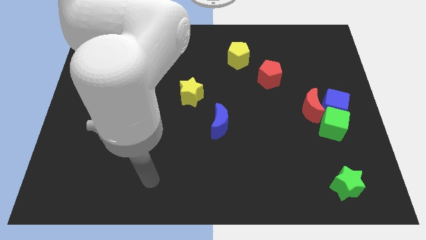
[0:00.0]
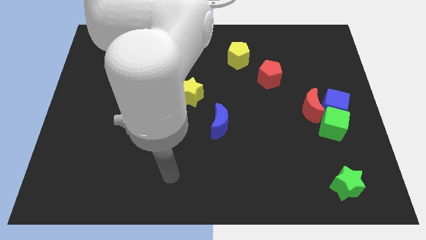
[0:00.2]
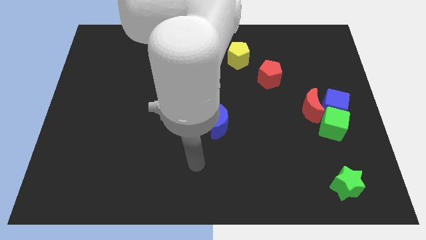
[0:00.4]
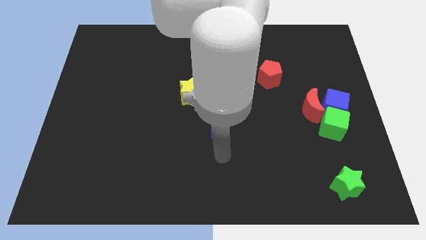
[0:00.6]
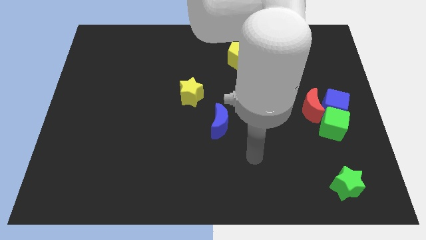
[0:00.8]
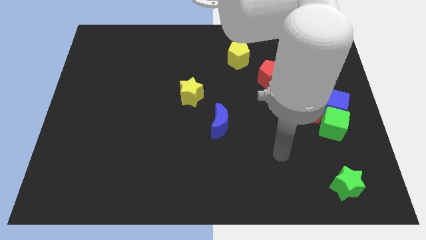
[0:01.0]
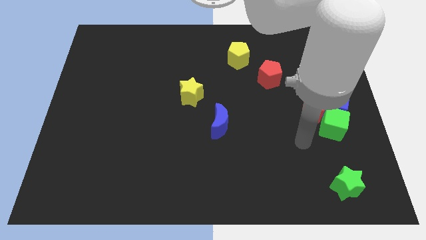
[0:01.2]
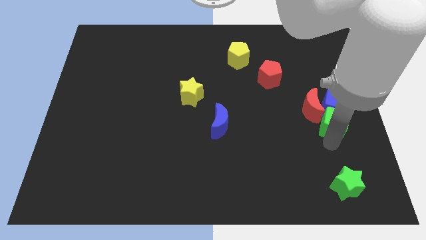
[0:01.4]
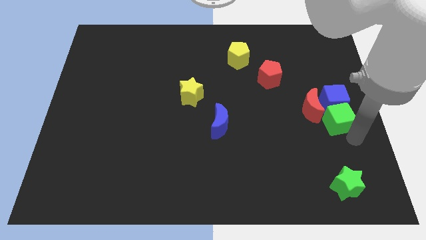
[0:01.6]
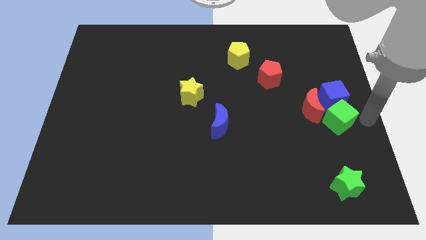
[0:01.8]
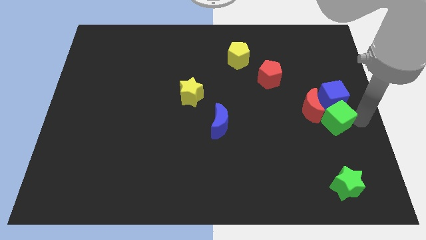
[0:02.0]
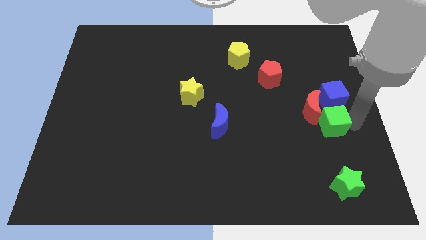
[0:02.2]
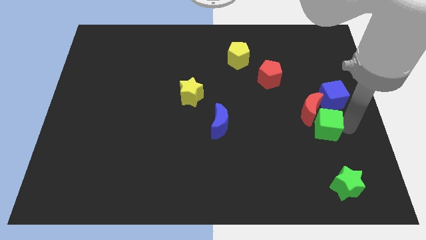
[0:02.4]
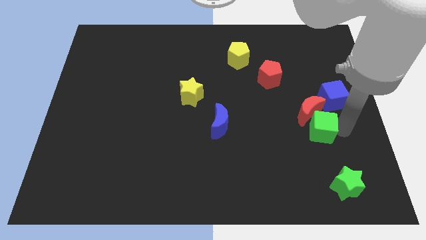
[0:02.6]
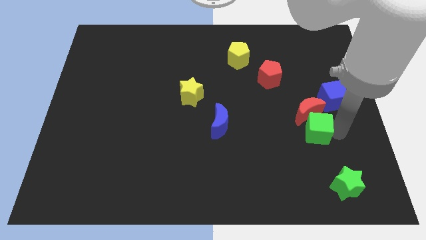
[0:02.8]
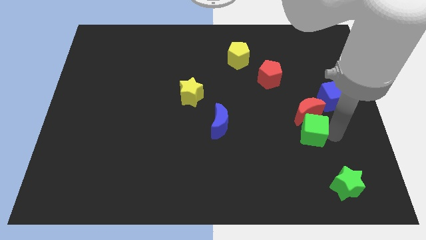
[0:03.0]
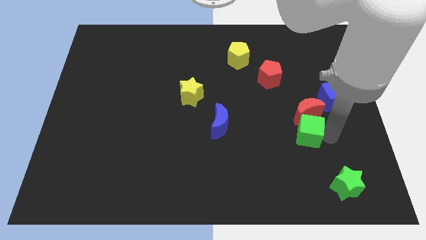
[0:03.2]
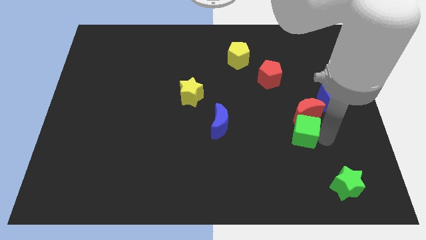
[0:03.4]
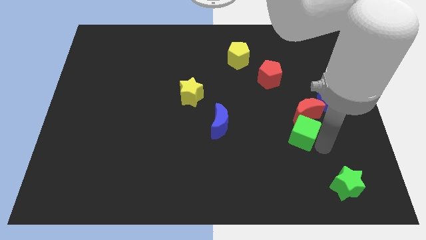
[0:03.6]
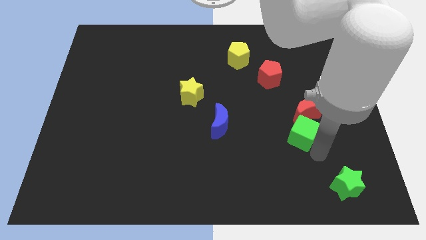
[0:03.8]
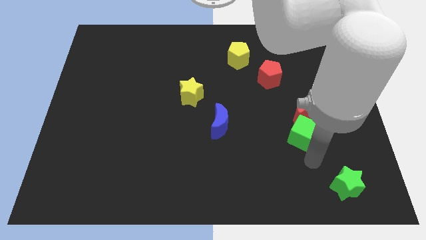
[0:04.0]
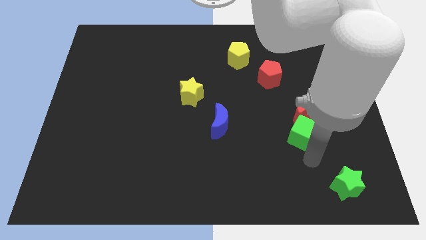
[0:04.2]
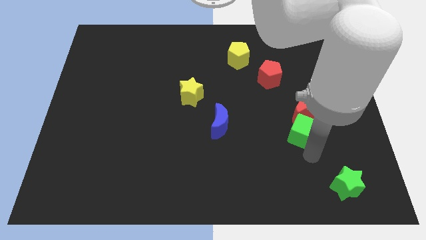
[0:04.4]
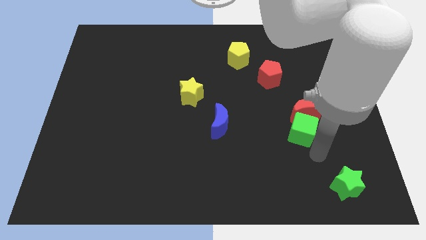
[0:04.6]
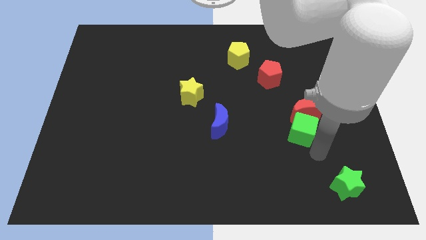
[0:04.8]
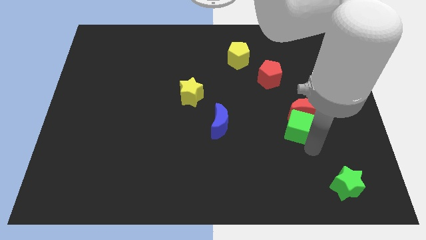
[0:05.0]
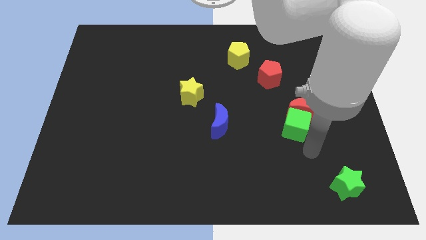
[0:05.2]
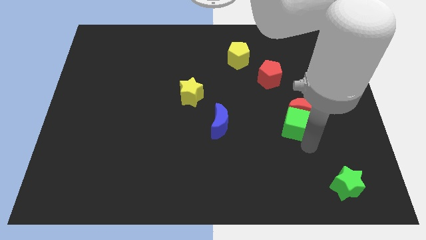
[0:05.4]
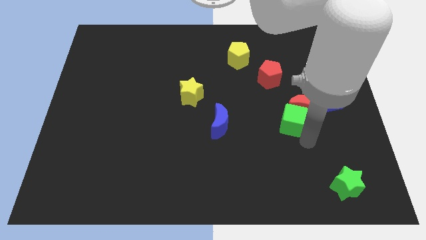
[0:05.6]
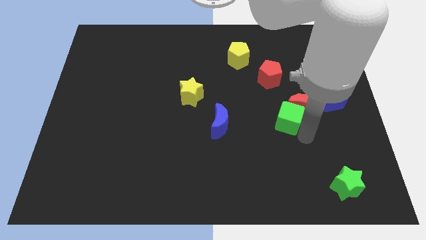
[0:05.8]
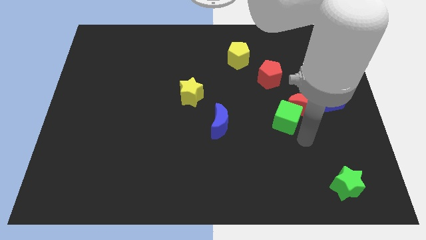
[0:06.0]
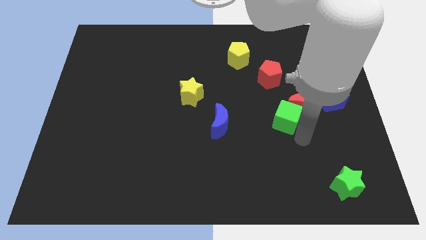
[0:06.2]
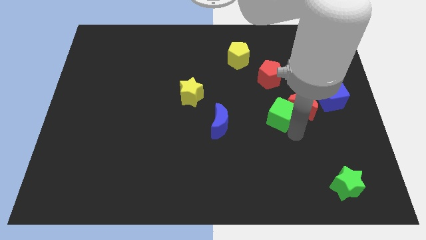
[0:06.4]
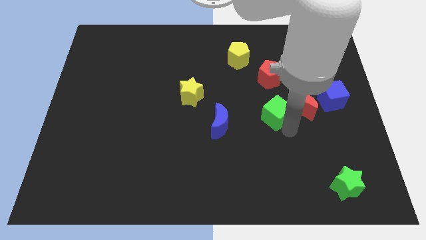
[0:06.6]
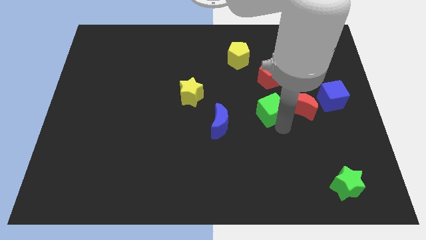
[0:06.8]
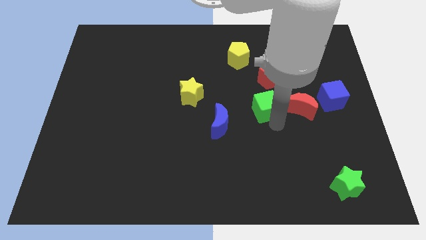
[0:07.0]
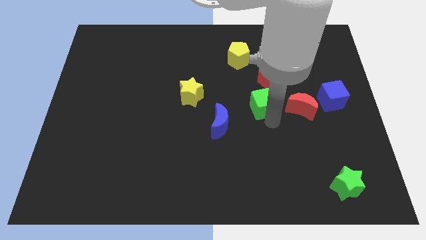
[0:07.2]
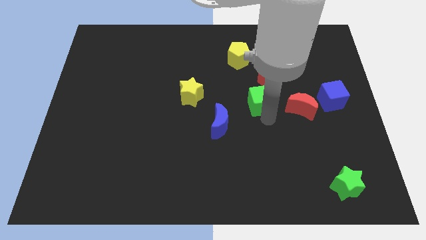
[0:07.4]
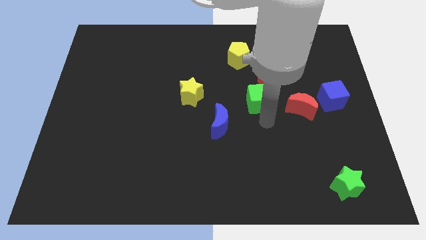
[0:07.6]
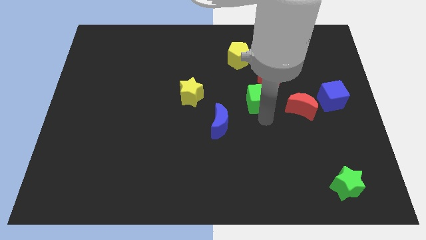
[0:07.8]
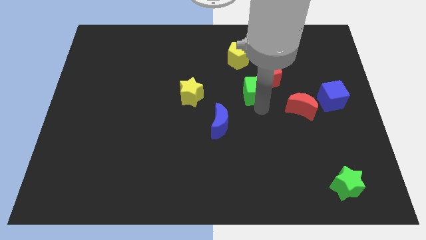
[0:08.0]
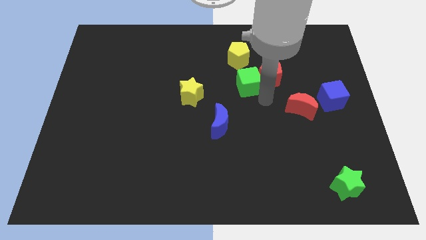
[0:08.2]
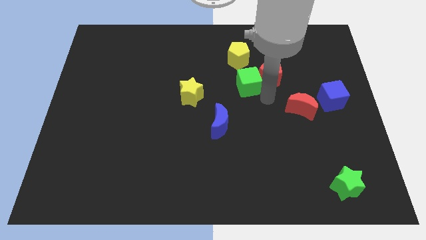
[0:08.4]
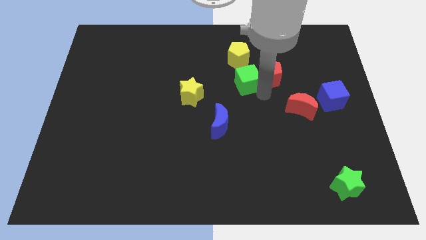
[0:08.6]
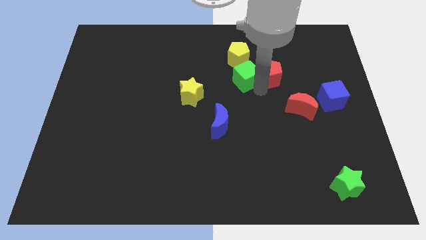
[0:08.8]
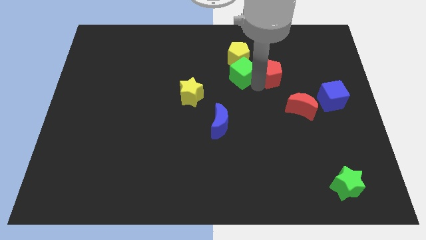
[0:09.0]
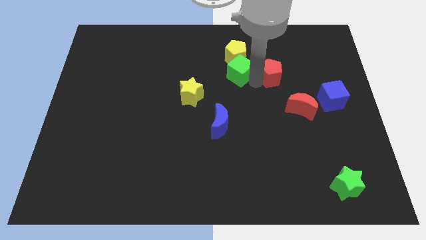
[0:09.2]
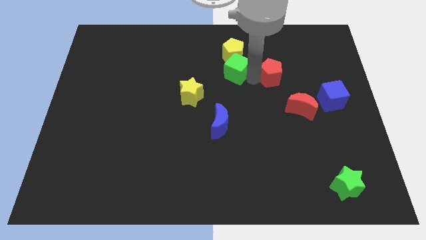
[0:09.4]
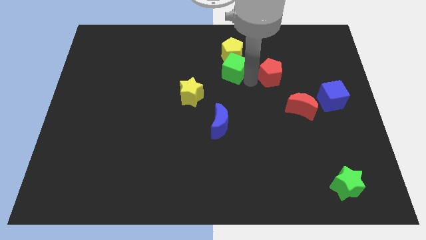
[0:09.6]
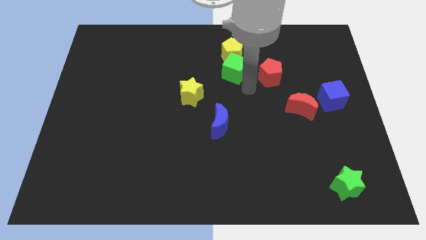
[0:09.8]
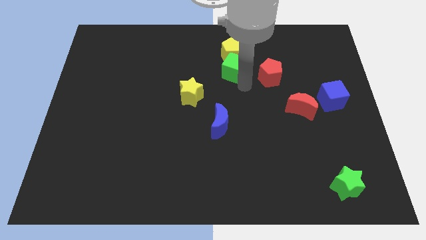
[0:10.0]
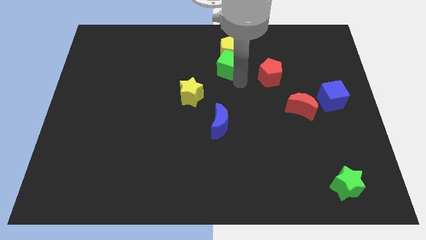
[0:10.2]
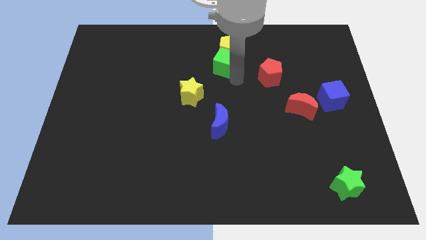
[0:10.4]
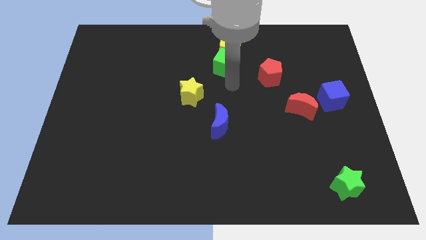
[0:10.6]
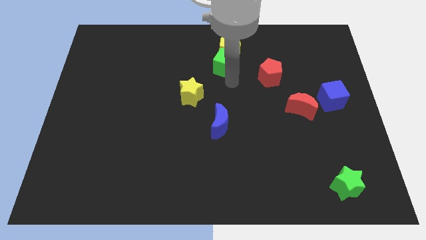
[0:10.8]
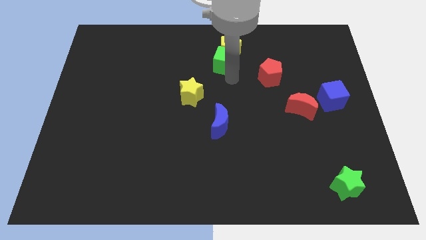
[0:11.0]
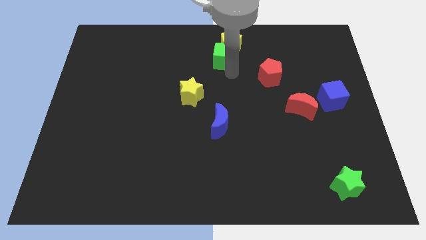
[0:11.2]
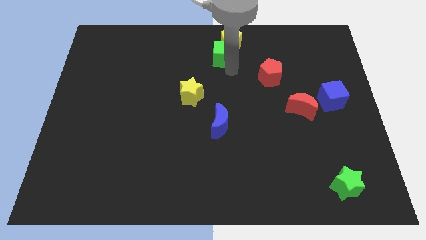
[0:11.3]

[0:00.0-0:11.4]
put the green cube to the towards your base
